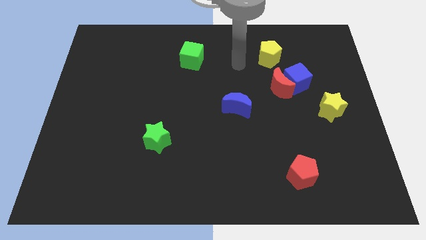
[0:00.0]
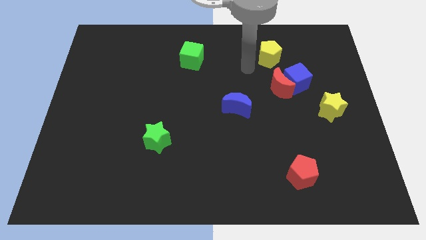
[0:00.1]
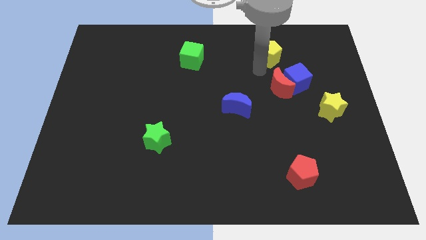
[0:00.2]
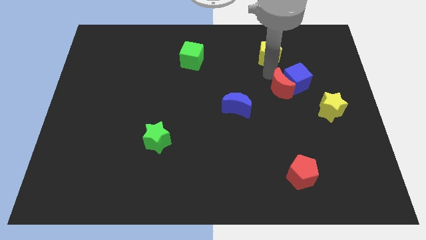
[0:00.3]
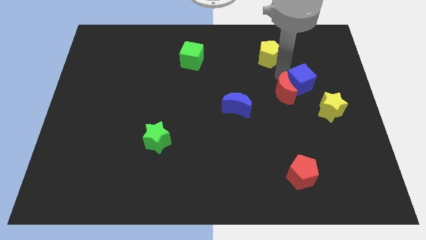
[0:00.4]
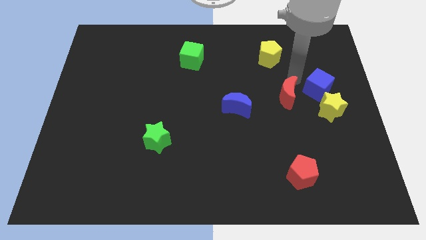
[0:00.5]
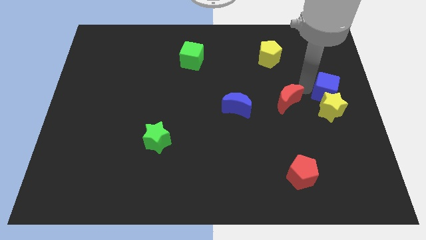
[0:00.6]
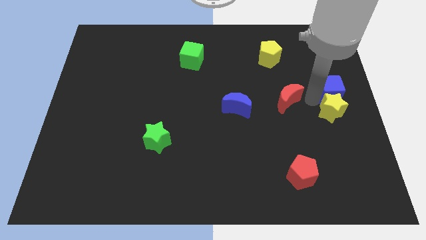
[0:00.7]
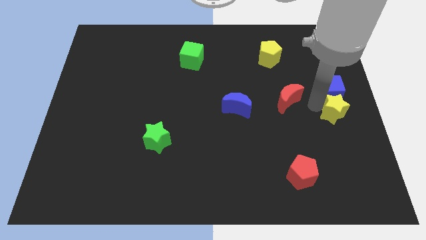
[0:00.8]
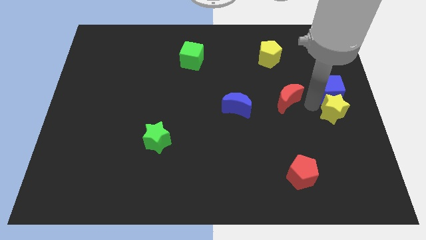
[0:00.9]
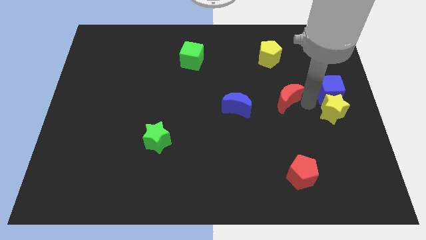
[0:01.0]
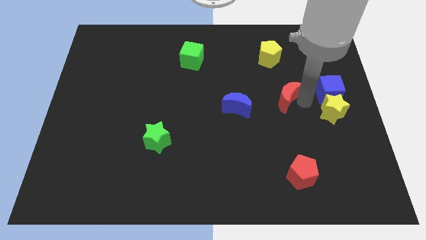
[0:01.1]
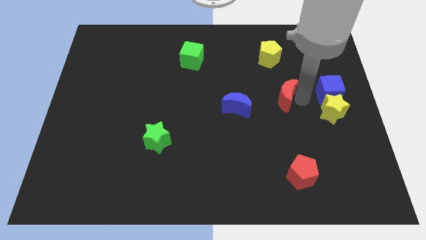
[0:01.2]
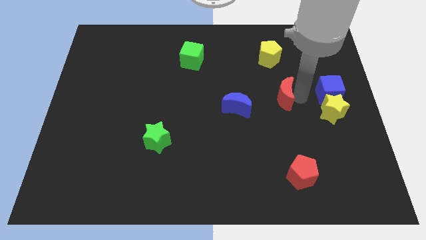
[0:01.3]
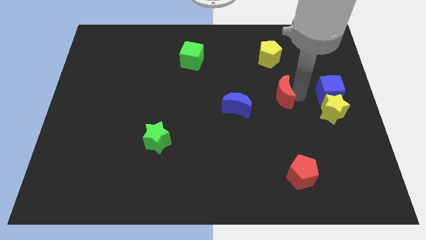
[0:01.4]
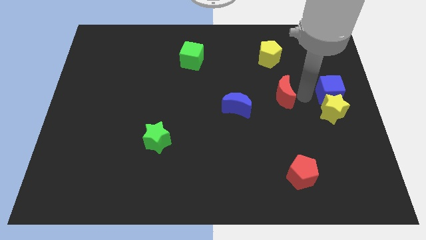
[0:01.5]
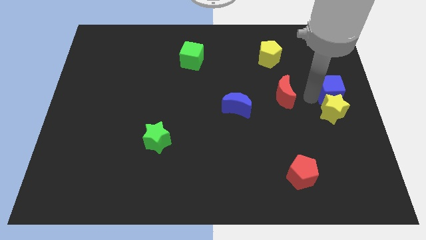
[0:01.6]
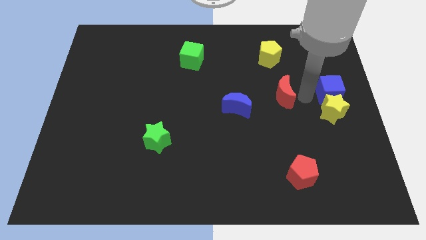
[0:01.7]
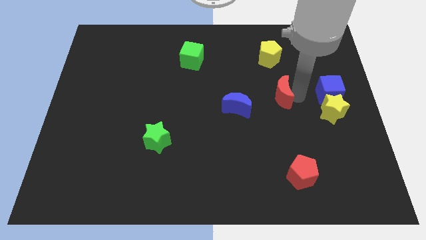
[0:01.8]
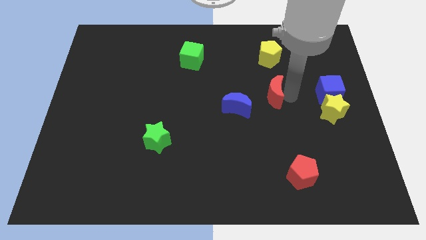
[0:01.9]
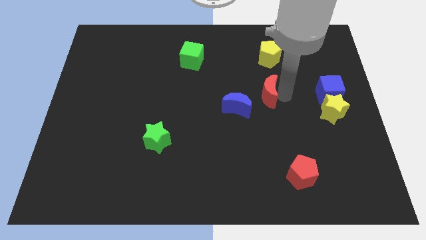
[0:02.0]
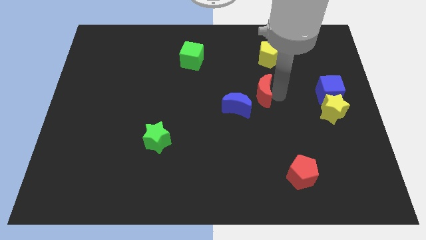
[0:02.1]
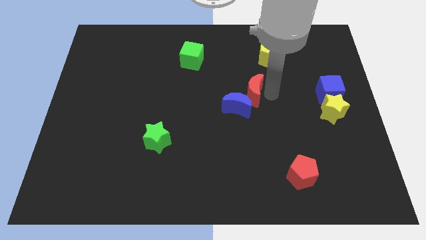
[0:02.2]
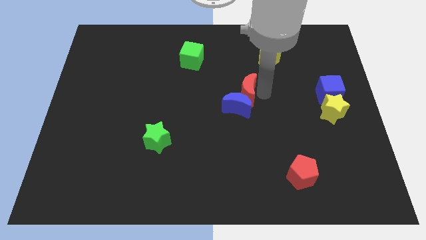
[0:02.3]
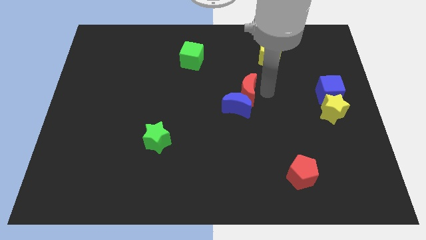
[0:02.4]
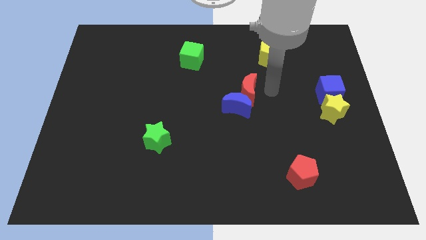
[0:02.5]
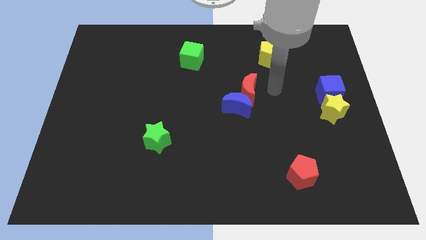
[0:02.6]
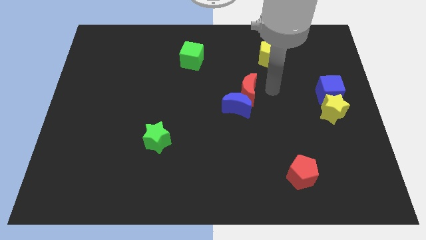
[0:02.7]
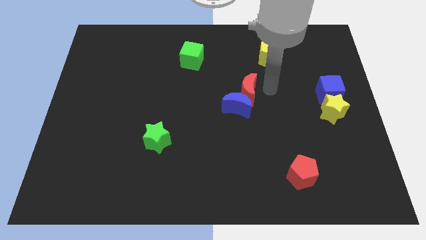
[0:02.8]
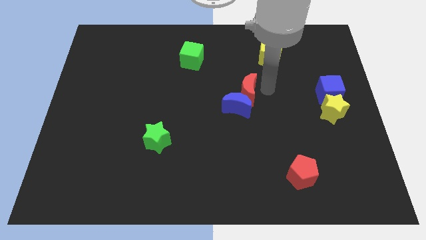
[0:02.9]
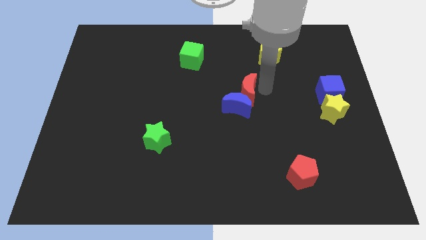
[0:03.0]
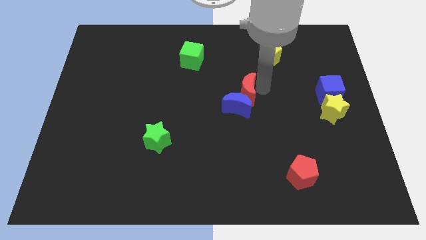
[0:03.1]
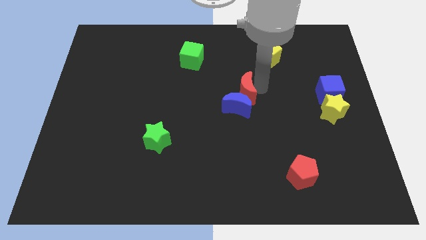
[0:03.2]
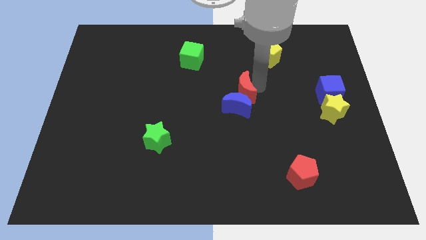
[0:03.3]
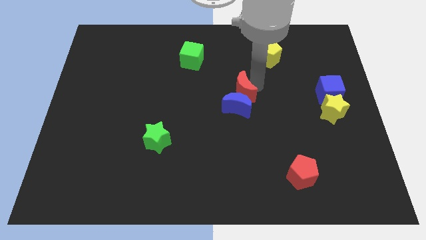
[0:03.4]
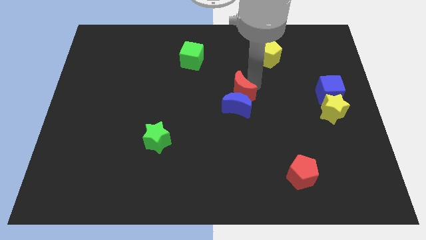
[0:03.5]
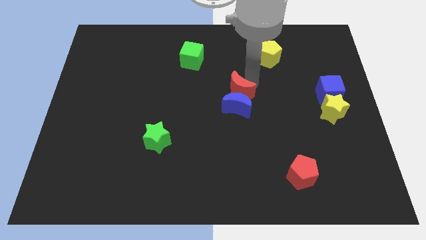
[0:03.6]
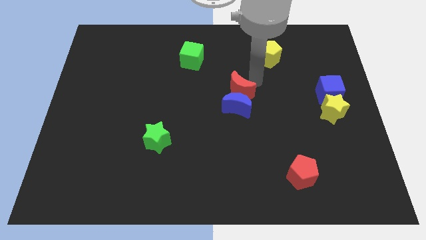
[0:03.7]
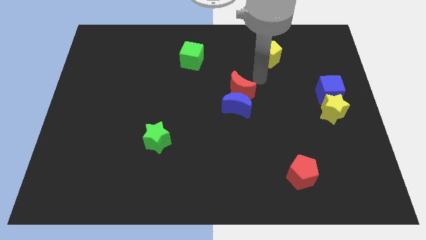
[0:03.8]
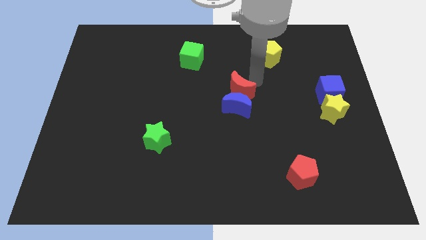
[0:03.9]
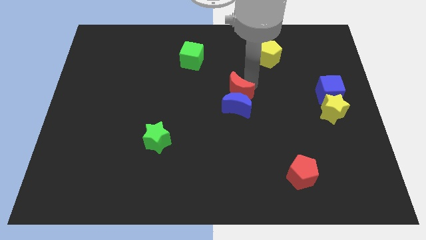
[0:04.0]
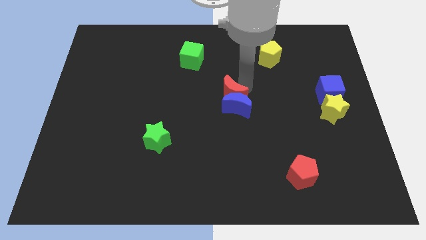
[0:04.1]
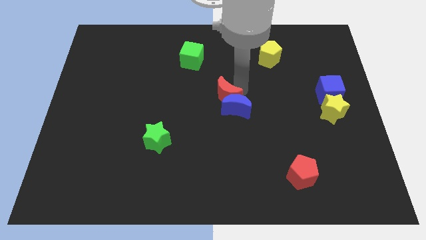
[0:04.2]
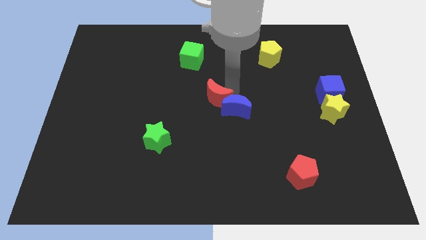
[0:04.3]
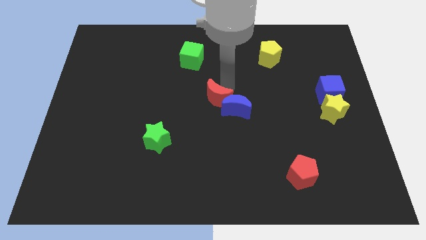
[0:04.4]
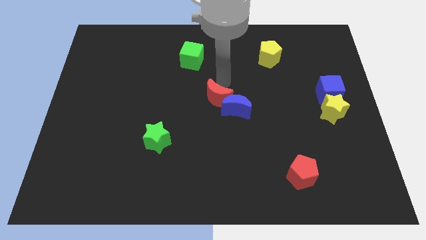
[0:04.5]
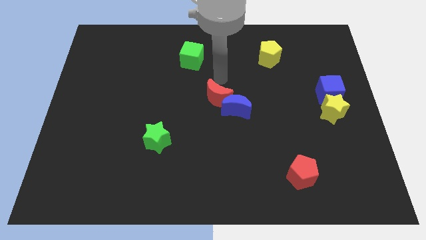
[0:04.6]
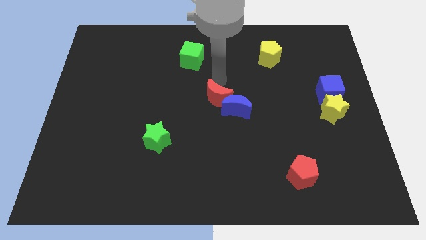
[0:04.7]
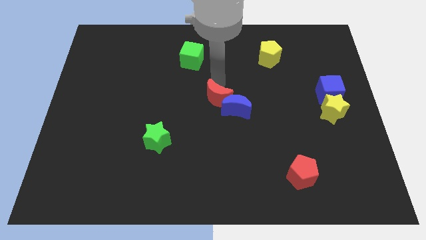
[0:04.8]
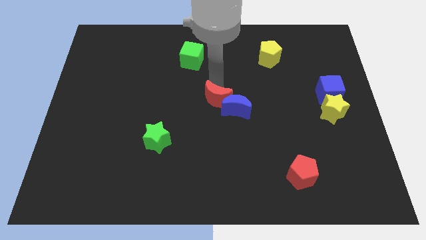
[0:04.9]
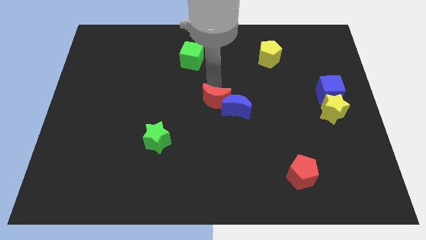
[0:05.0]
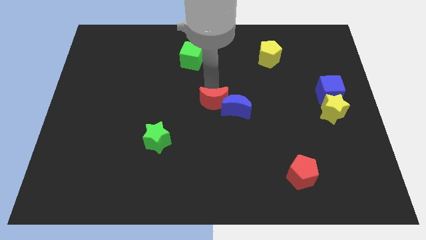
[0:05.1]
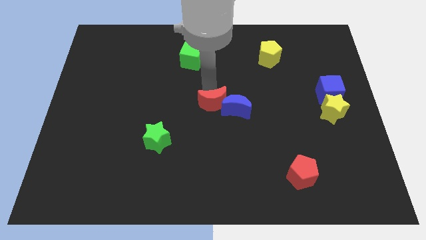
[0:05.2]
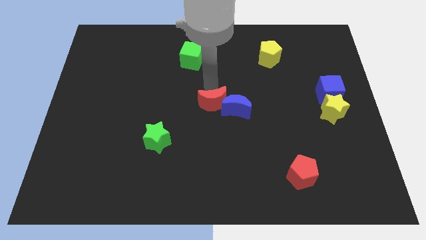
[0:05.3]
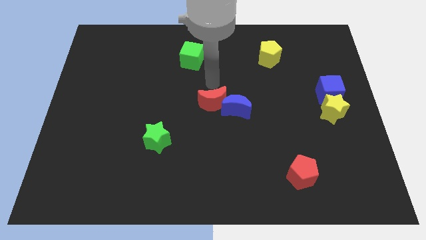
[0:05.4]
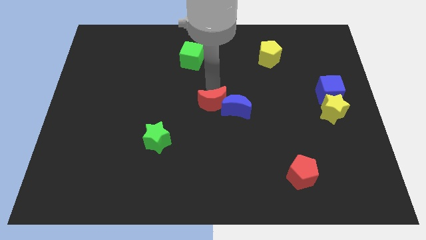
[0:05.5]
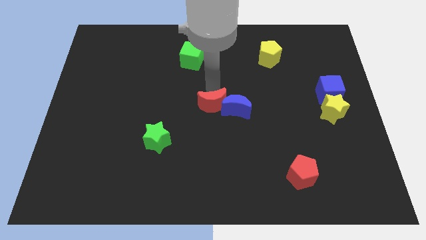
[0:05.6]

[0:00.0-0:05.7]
push the red moon to the bottom left side of the blue moon
